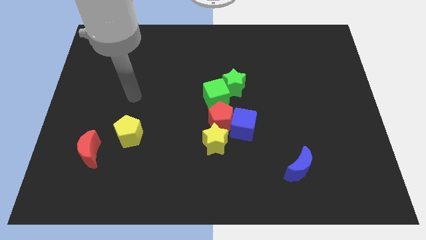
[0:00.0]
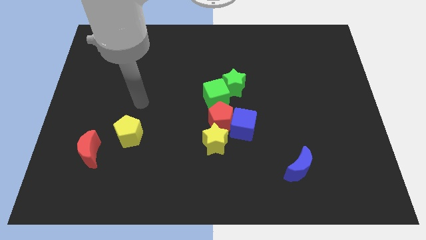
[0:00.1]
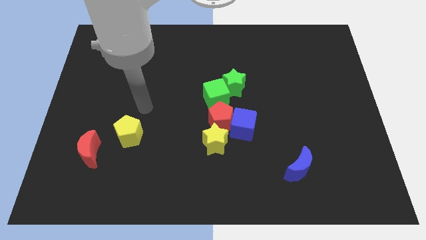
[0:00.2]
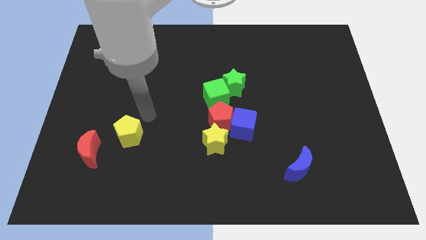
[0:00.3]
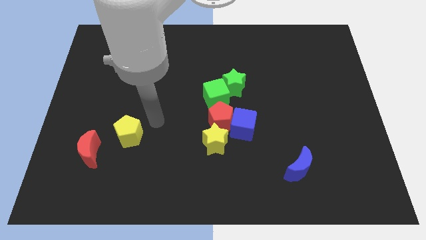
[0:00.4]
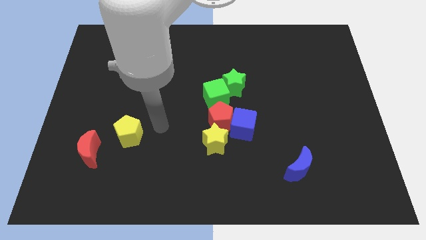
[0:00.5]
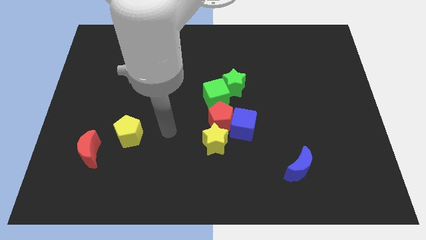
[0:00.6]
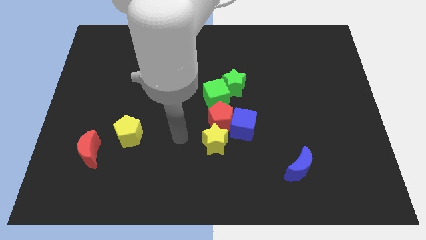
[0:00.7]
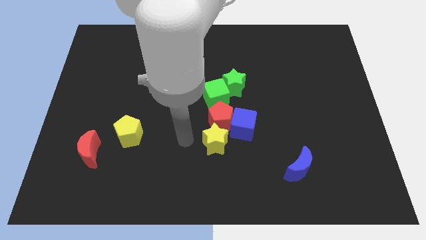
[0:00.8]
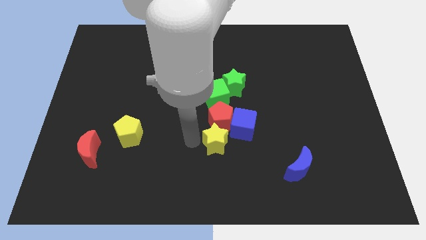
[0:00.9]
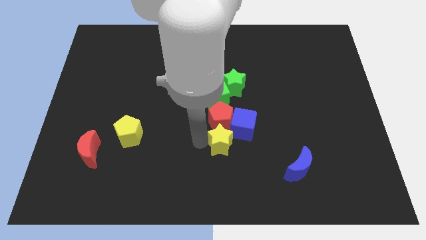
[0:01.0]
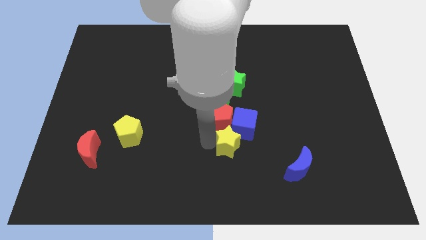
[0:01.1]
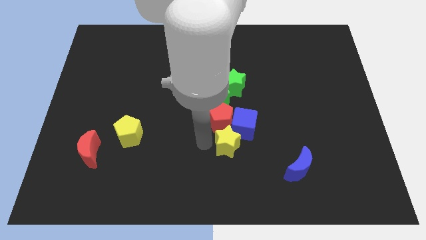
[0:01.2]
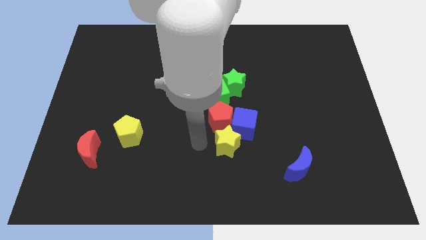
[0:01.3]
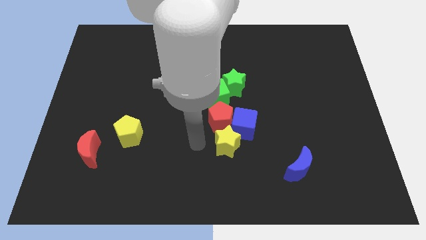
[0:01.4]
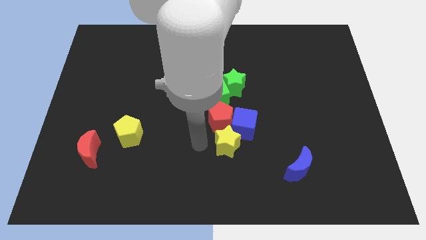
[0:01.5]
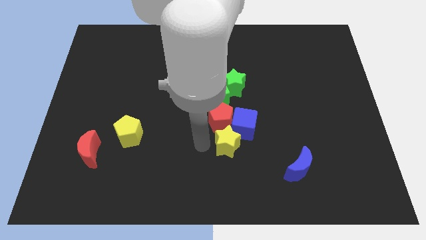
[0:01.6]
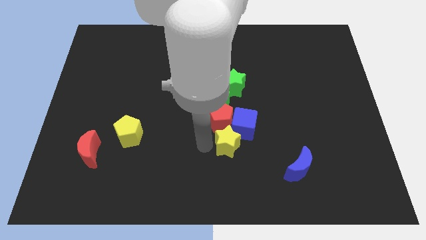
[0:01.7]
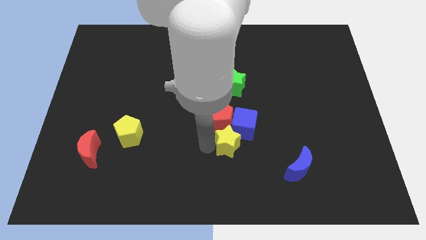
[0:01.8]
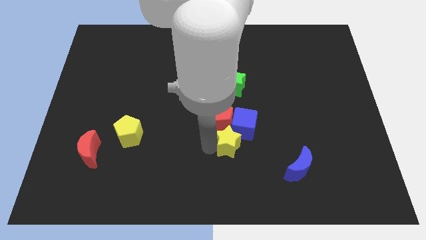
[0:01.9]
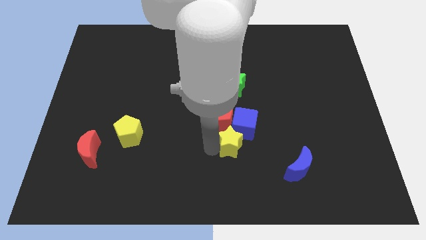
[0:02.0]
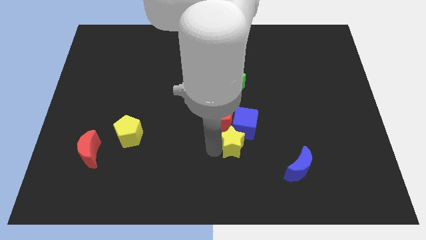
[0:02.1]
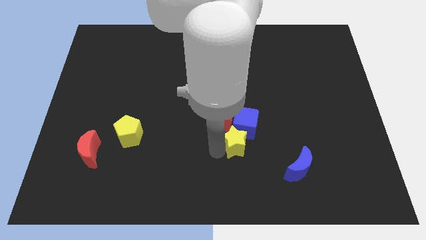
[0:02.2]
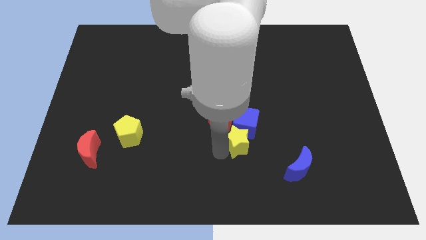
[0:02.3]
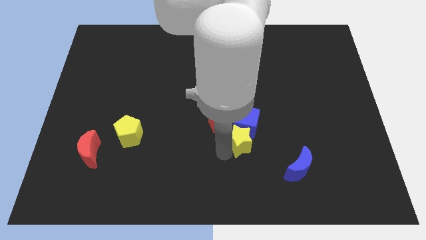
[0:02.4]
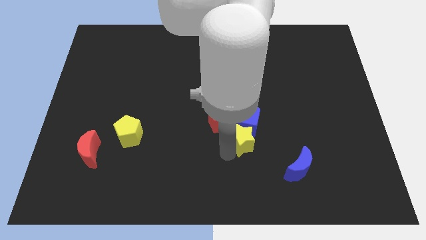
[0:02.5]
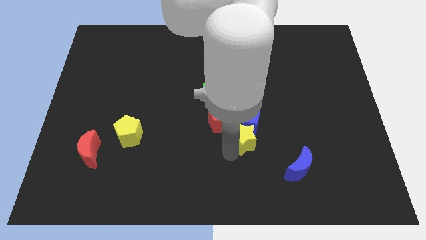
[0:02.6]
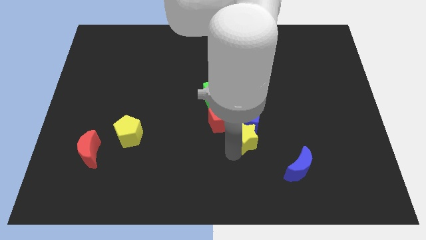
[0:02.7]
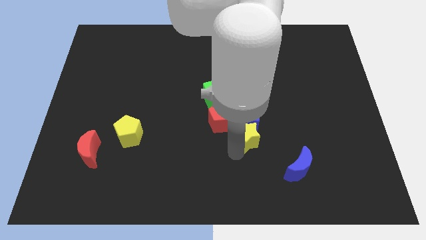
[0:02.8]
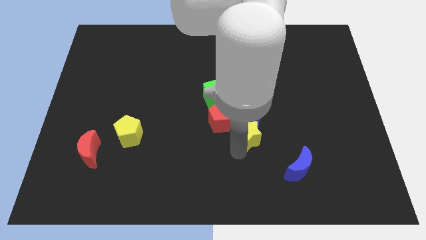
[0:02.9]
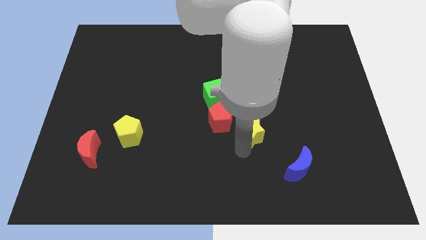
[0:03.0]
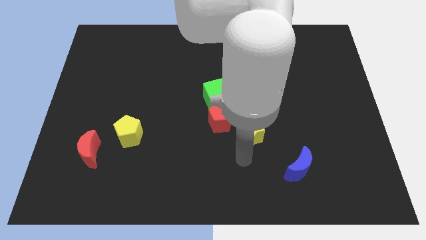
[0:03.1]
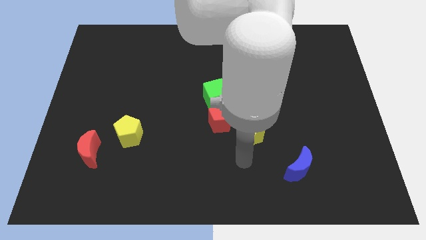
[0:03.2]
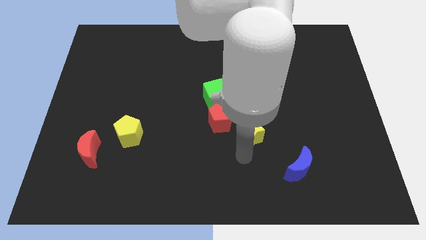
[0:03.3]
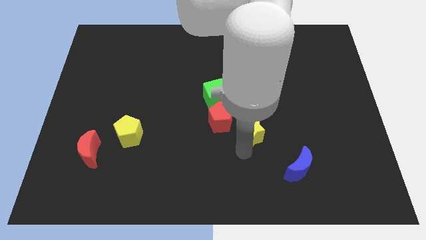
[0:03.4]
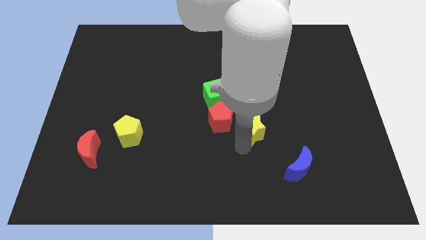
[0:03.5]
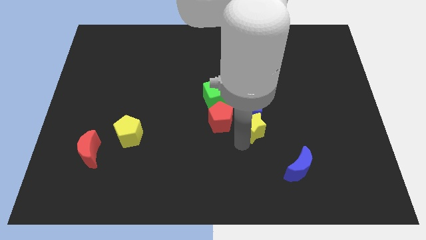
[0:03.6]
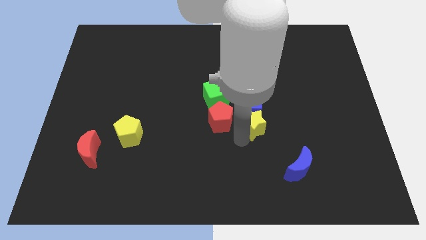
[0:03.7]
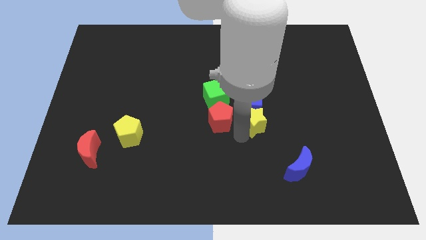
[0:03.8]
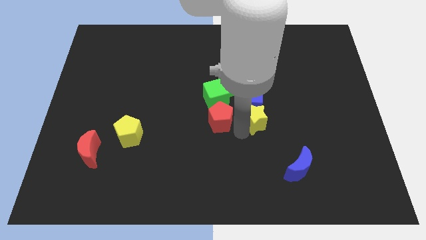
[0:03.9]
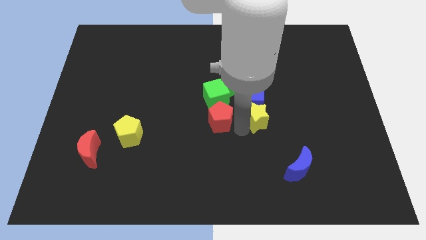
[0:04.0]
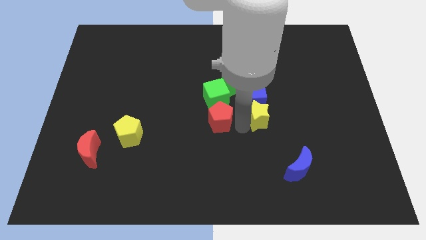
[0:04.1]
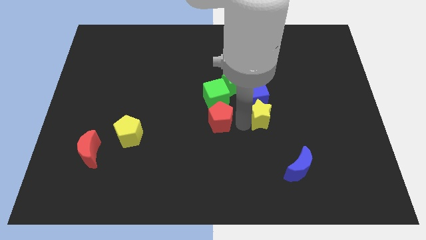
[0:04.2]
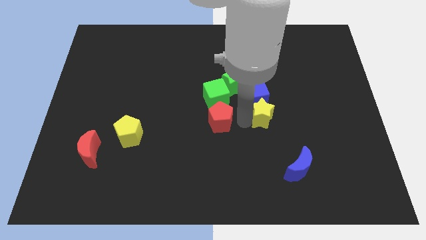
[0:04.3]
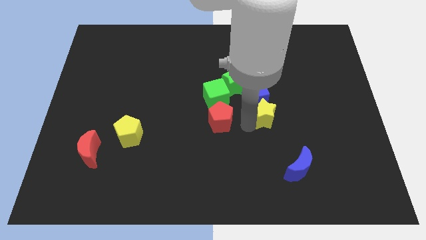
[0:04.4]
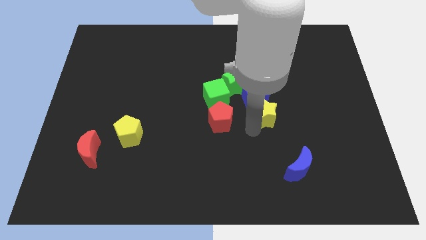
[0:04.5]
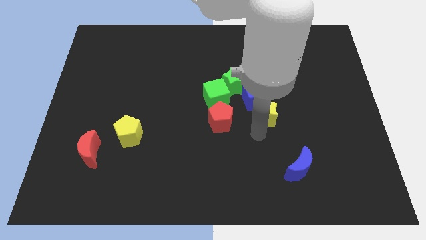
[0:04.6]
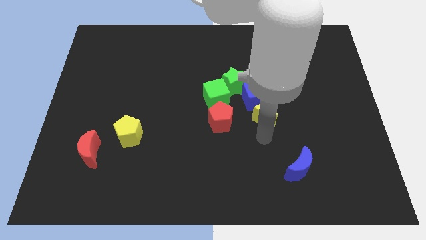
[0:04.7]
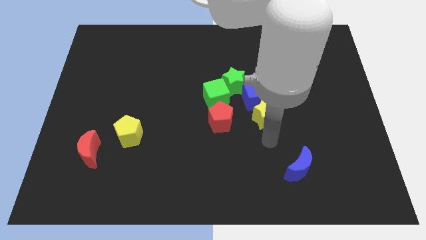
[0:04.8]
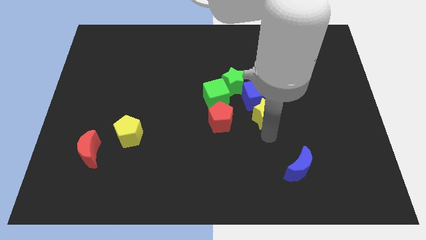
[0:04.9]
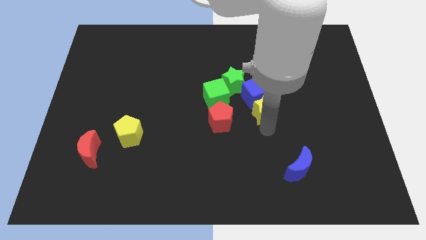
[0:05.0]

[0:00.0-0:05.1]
push the yellow star to the right of the green cube
